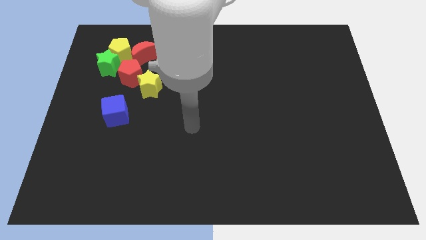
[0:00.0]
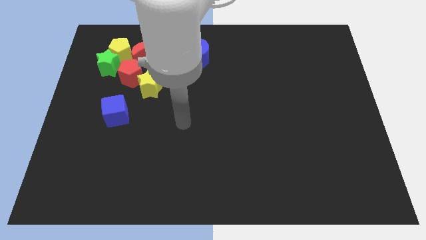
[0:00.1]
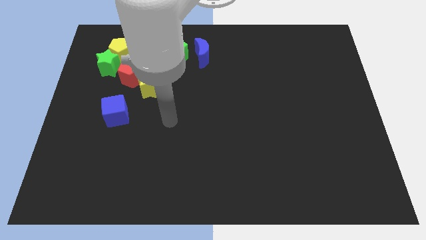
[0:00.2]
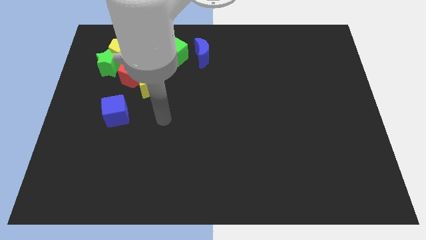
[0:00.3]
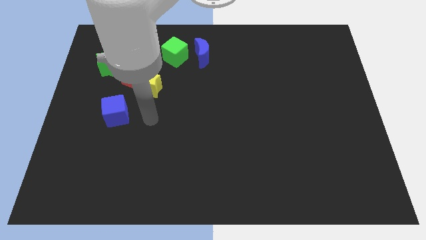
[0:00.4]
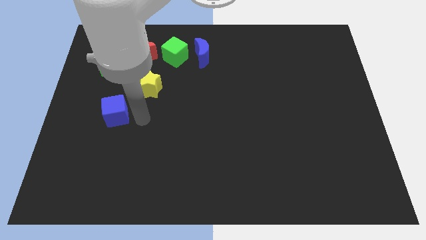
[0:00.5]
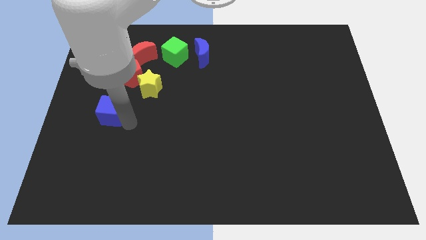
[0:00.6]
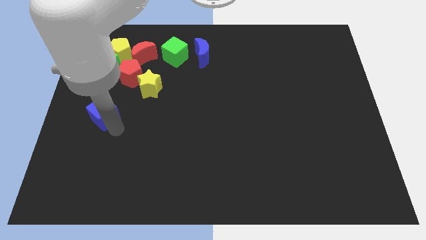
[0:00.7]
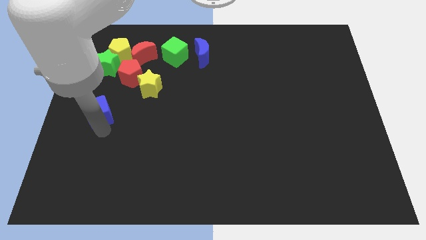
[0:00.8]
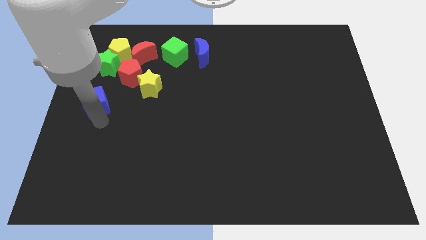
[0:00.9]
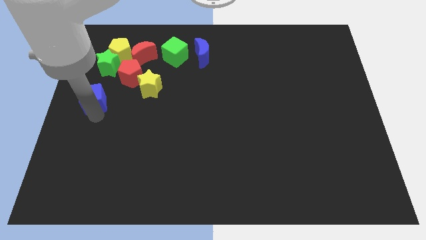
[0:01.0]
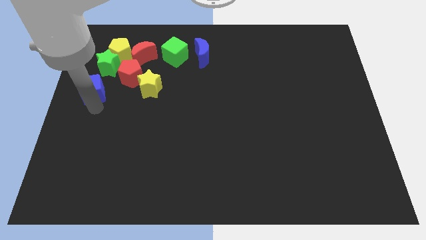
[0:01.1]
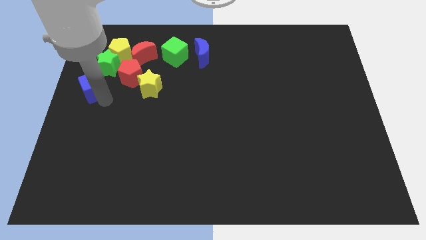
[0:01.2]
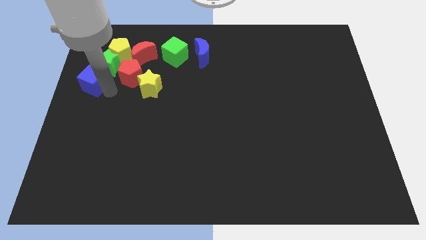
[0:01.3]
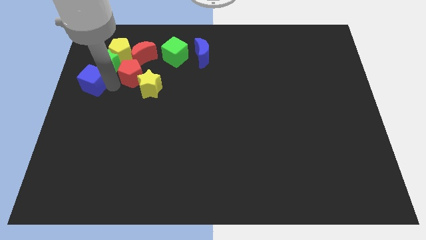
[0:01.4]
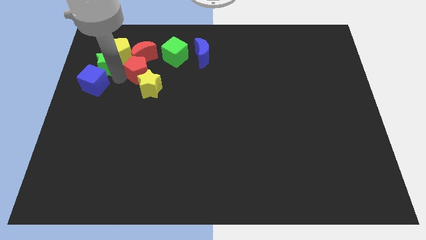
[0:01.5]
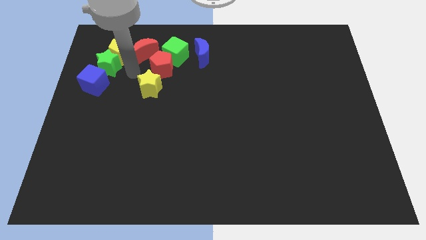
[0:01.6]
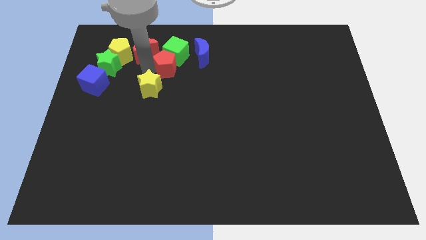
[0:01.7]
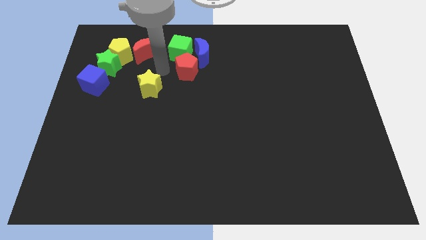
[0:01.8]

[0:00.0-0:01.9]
move the yellow star away from the red pentagon

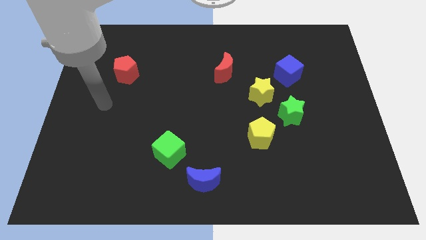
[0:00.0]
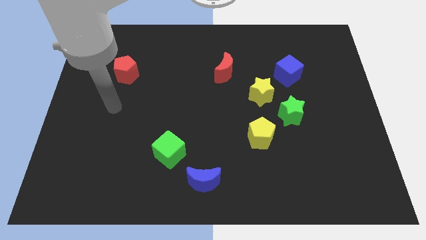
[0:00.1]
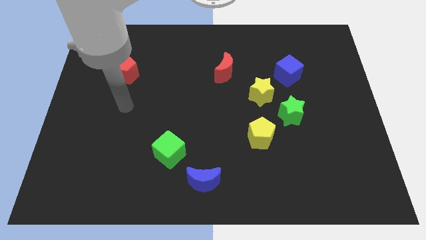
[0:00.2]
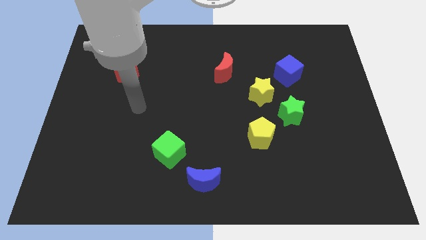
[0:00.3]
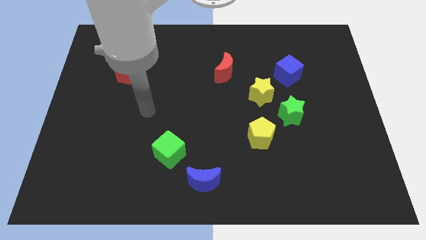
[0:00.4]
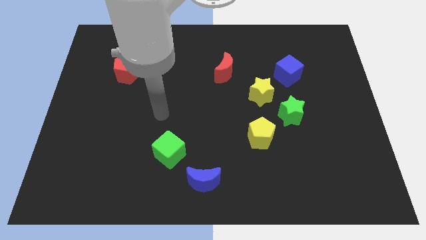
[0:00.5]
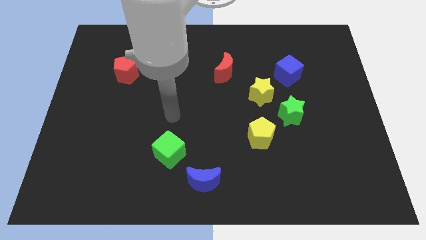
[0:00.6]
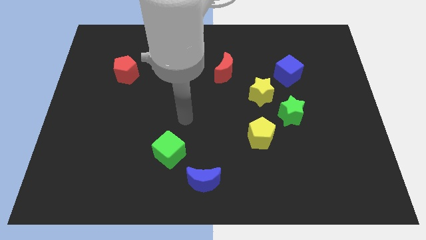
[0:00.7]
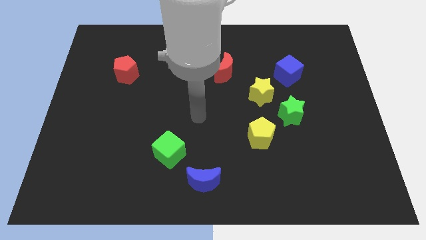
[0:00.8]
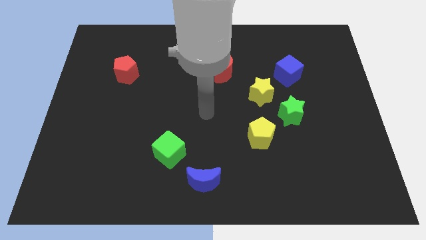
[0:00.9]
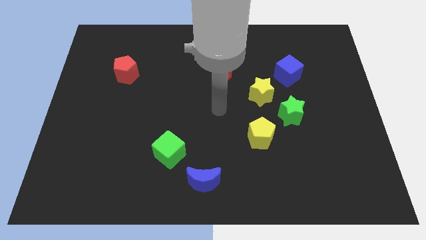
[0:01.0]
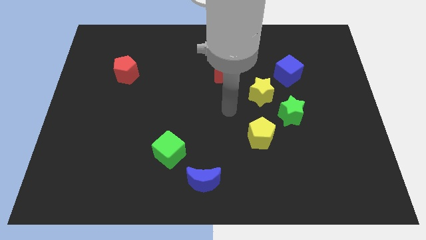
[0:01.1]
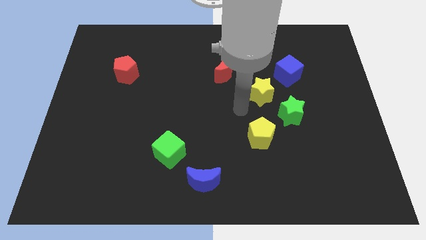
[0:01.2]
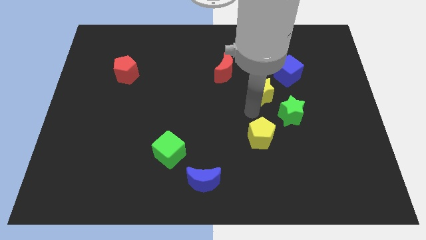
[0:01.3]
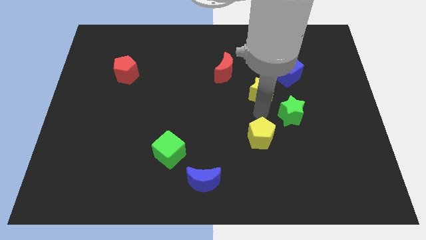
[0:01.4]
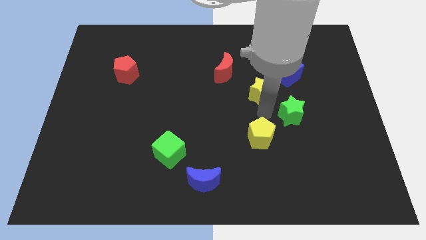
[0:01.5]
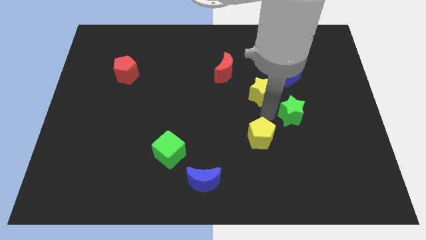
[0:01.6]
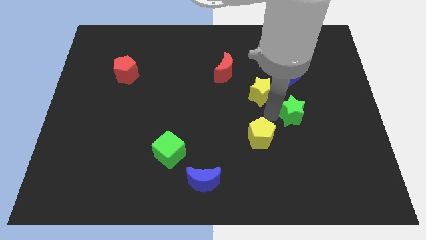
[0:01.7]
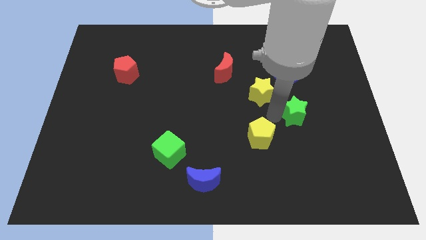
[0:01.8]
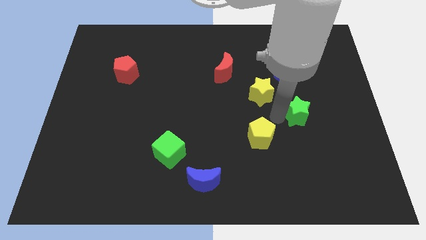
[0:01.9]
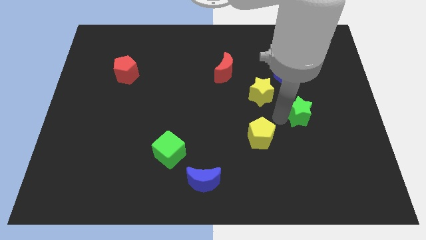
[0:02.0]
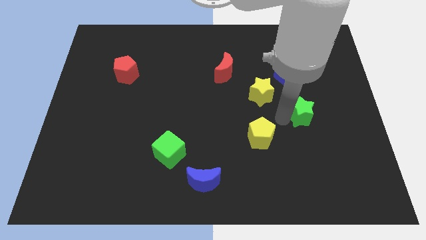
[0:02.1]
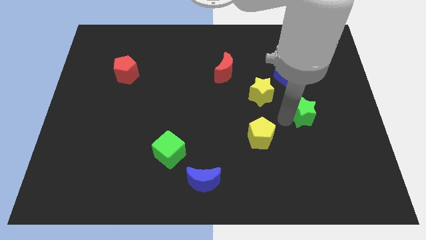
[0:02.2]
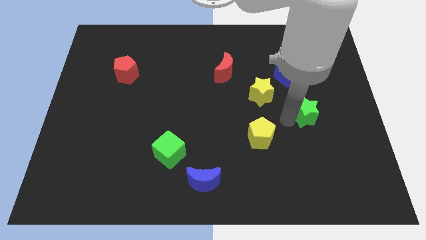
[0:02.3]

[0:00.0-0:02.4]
pull the green star apart from the yellow star and yellow pentagon

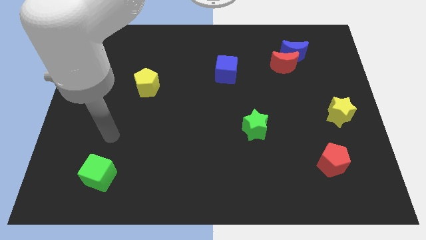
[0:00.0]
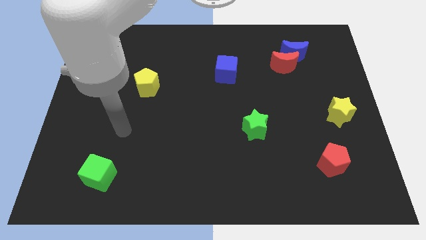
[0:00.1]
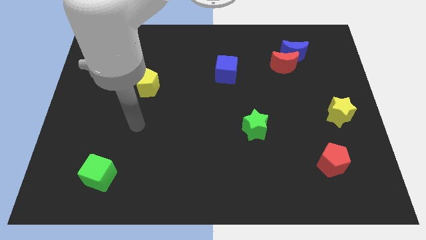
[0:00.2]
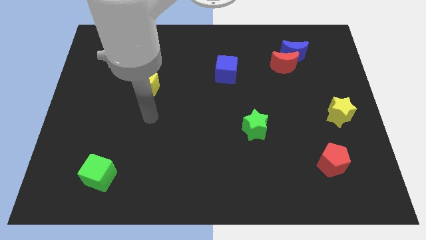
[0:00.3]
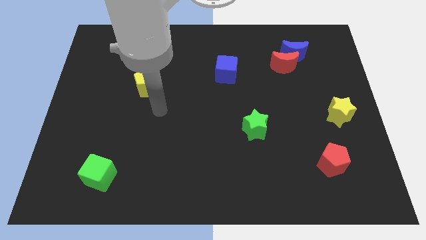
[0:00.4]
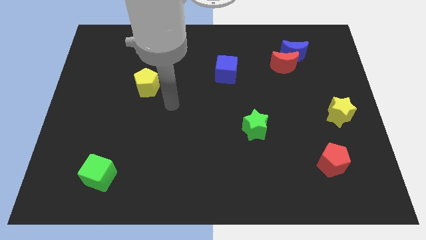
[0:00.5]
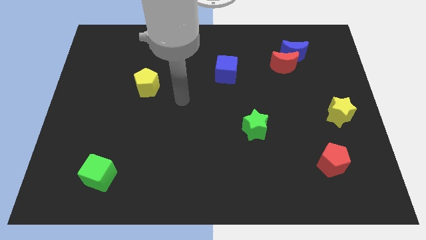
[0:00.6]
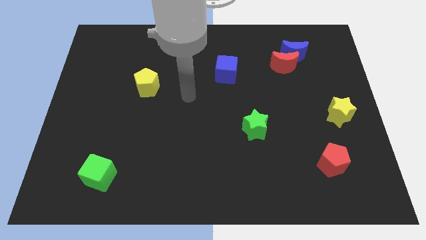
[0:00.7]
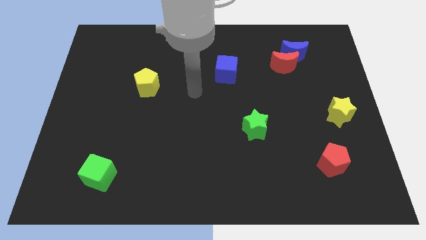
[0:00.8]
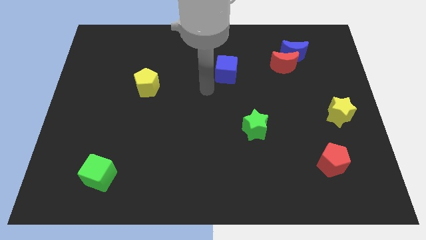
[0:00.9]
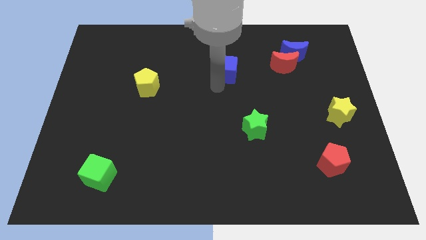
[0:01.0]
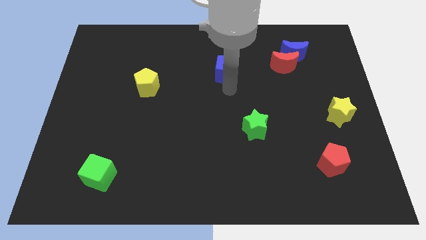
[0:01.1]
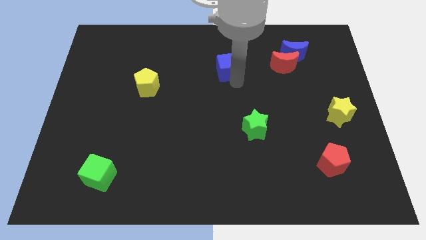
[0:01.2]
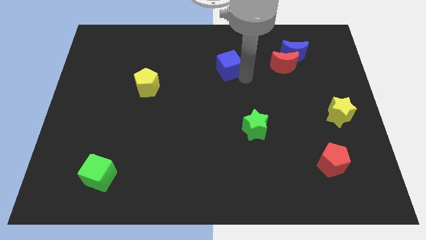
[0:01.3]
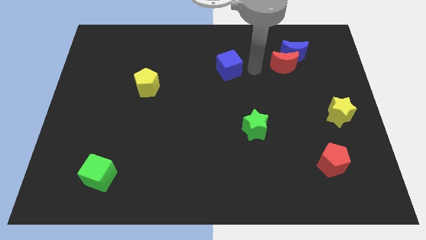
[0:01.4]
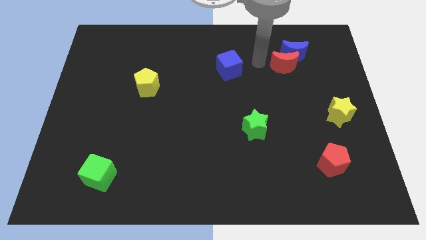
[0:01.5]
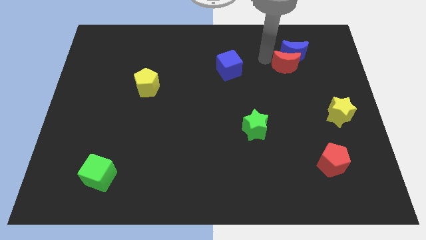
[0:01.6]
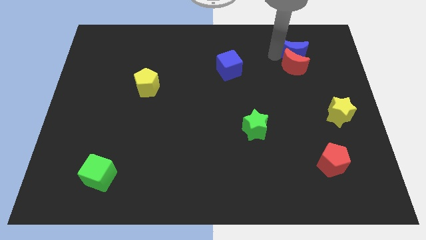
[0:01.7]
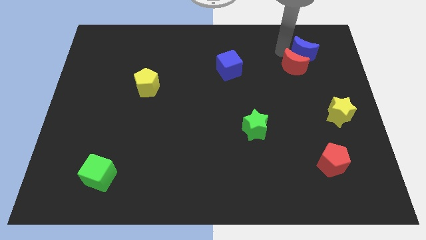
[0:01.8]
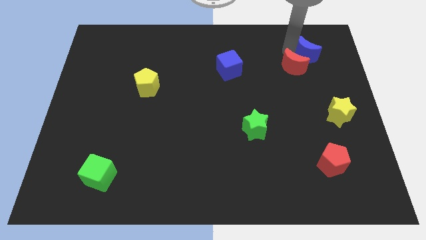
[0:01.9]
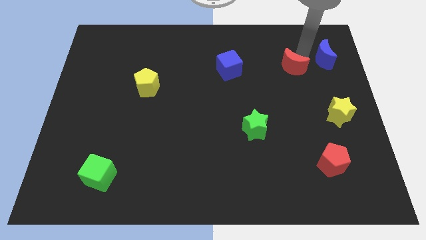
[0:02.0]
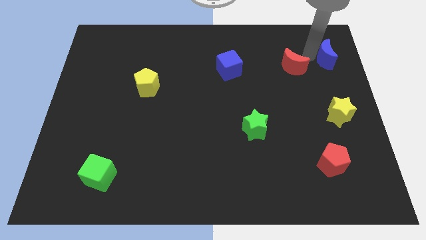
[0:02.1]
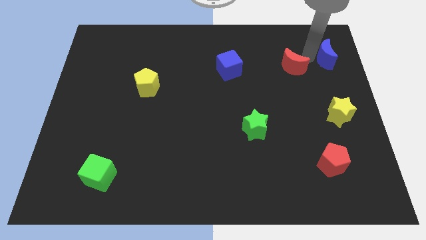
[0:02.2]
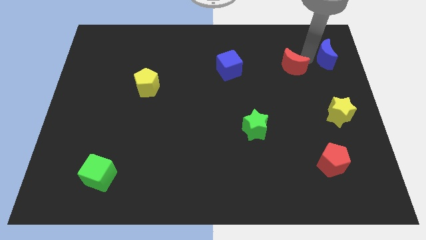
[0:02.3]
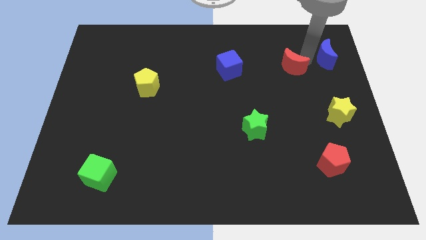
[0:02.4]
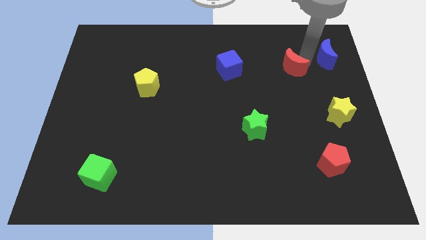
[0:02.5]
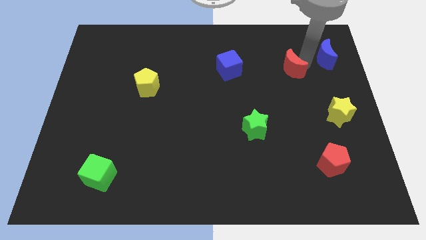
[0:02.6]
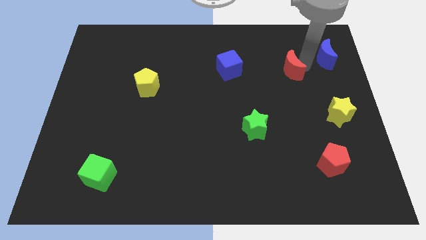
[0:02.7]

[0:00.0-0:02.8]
separate the red moon from the blue moon

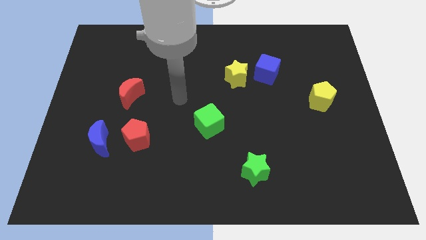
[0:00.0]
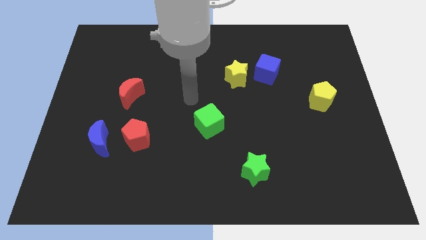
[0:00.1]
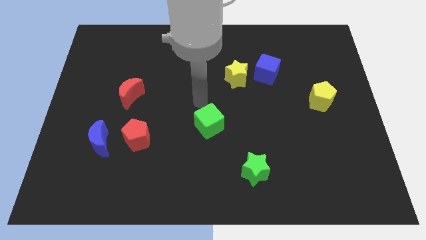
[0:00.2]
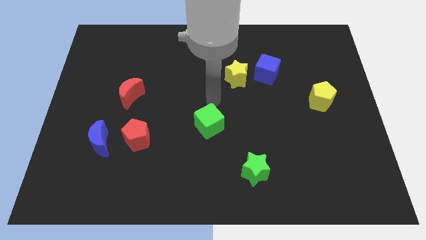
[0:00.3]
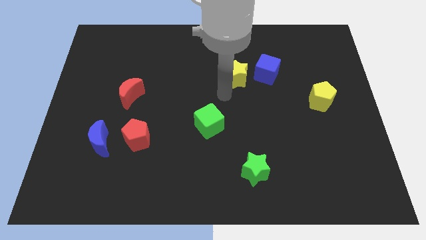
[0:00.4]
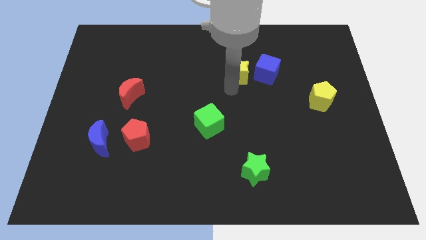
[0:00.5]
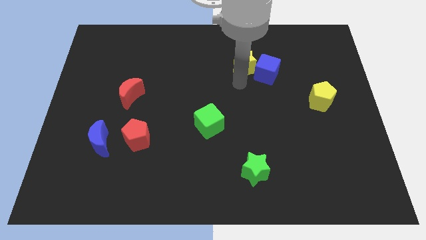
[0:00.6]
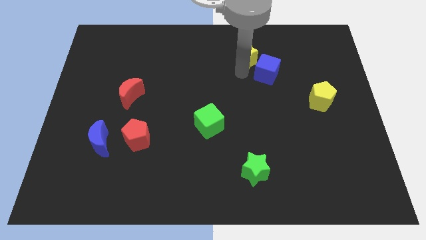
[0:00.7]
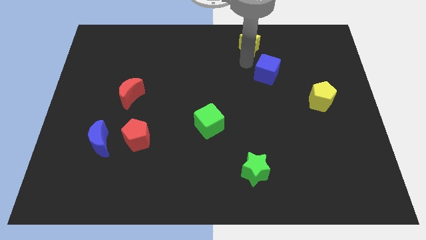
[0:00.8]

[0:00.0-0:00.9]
separate the blue cube from the yellow star

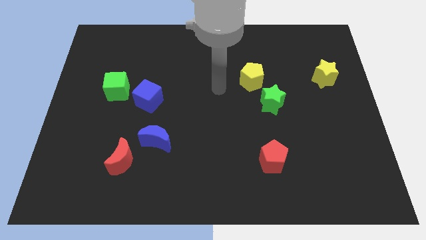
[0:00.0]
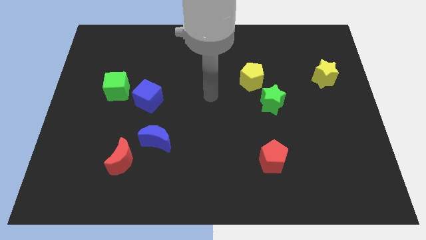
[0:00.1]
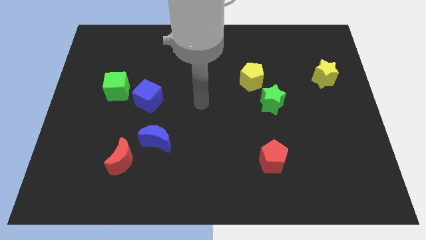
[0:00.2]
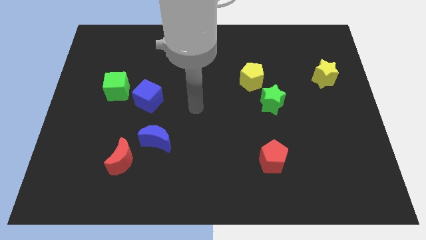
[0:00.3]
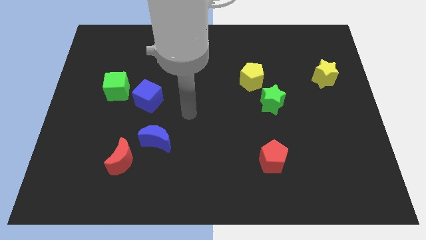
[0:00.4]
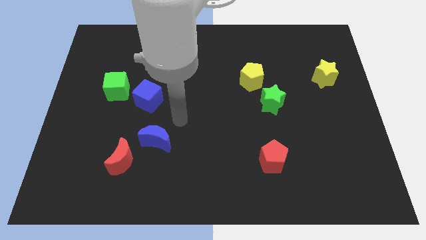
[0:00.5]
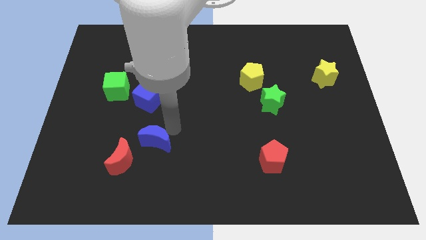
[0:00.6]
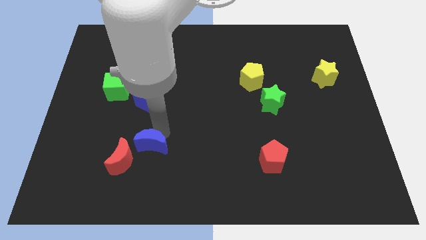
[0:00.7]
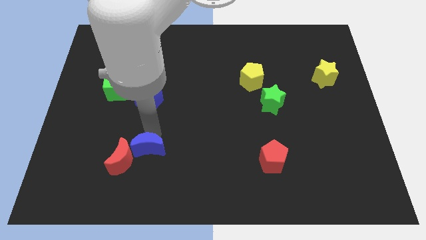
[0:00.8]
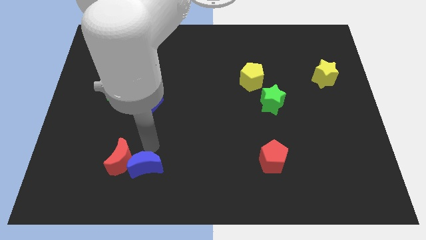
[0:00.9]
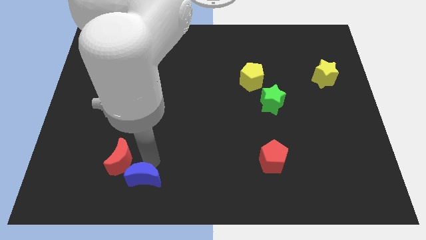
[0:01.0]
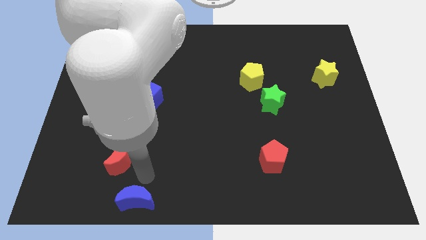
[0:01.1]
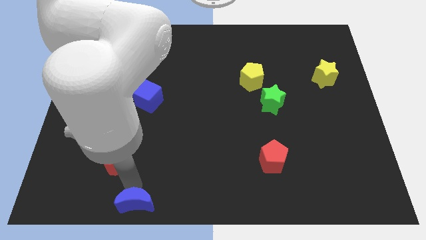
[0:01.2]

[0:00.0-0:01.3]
pull the red moon apart from the blue moon
